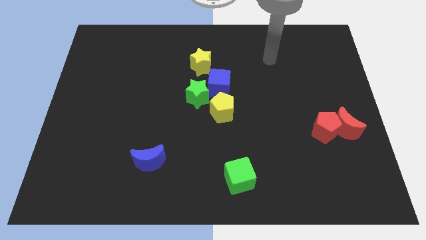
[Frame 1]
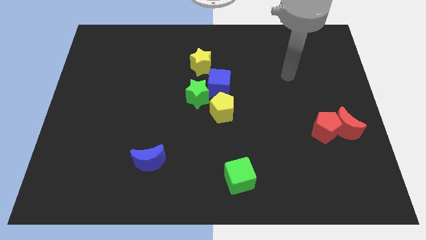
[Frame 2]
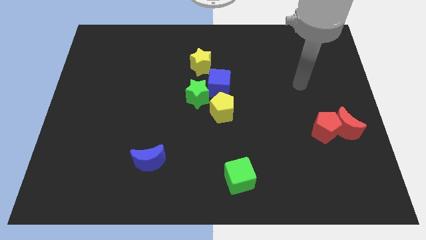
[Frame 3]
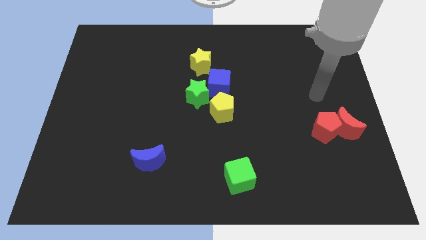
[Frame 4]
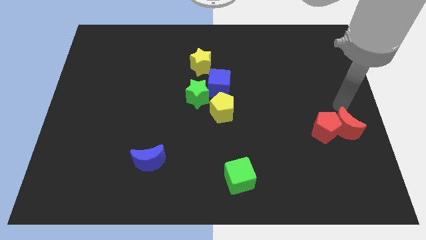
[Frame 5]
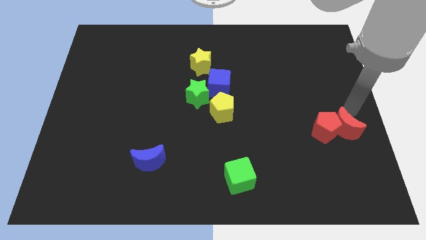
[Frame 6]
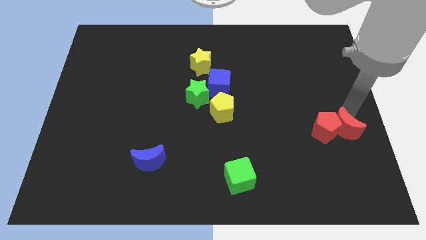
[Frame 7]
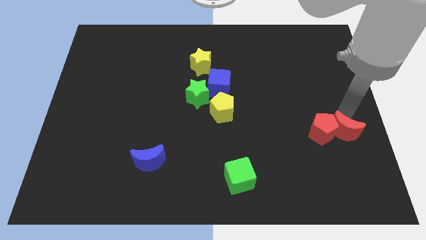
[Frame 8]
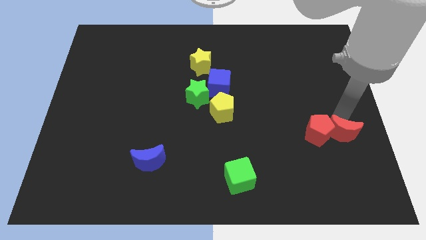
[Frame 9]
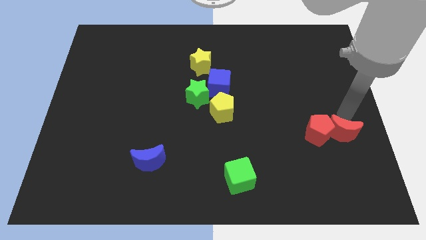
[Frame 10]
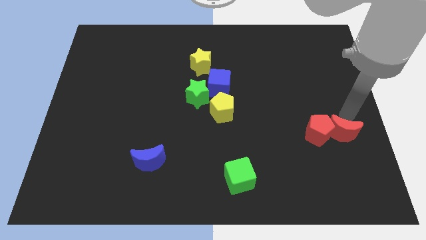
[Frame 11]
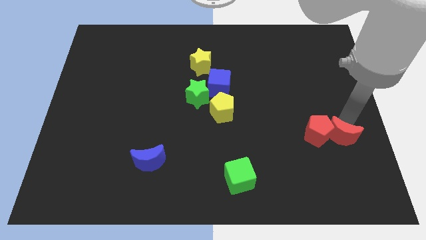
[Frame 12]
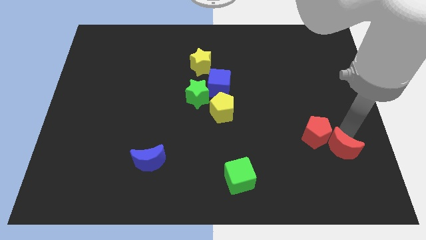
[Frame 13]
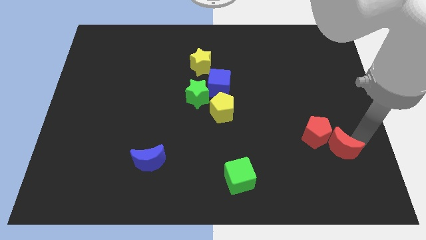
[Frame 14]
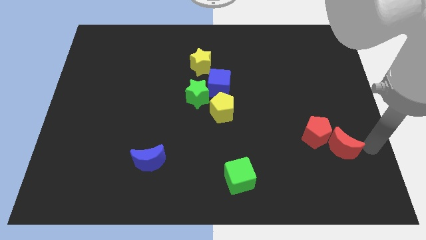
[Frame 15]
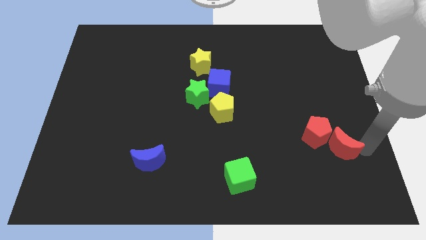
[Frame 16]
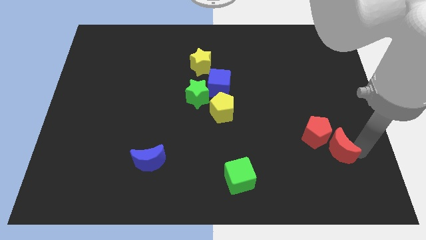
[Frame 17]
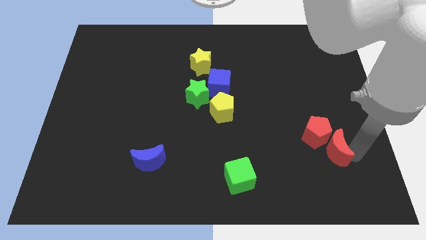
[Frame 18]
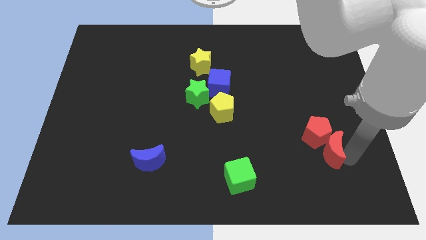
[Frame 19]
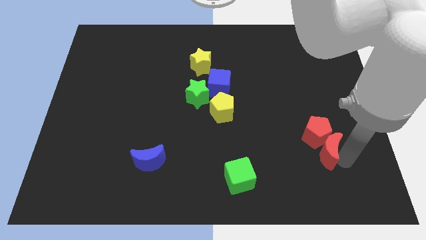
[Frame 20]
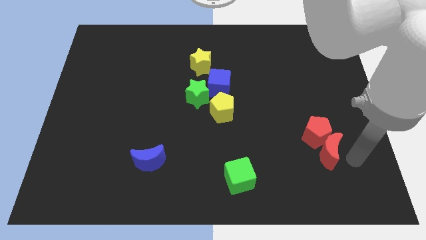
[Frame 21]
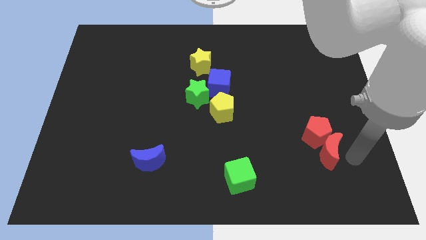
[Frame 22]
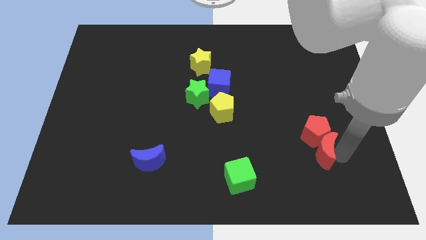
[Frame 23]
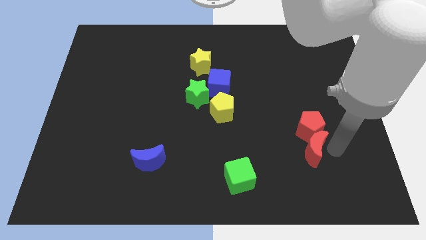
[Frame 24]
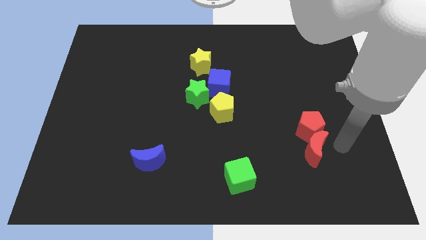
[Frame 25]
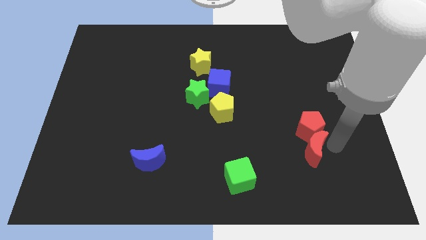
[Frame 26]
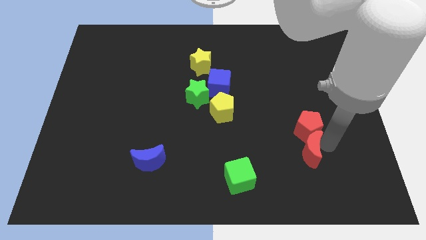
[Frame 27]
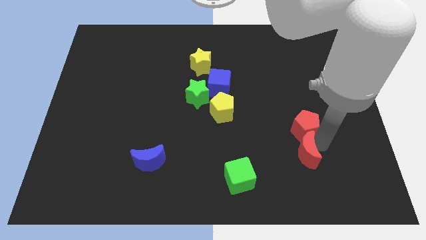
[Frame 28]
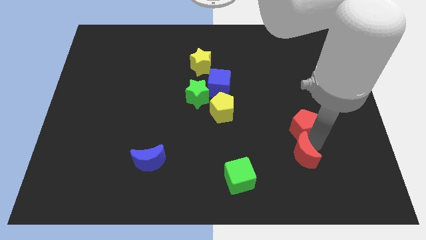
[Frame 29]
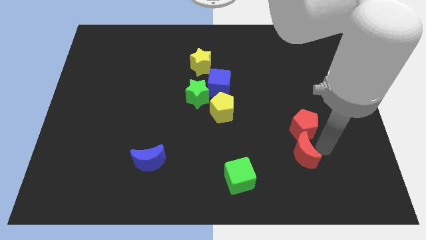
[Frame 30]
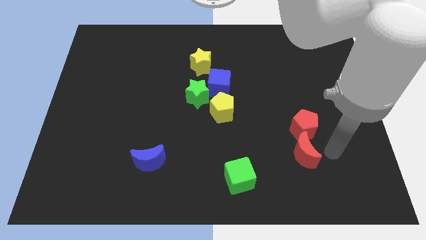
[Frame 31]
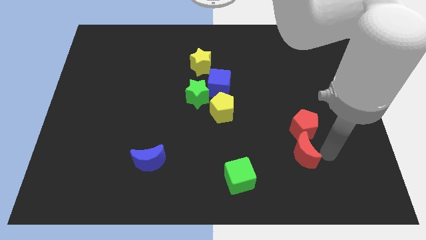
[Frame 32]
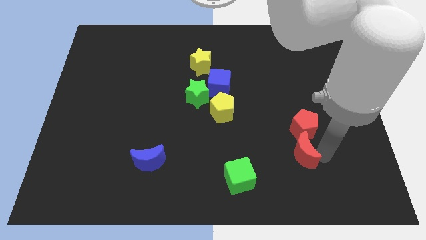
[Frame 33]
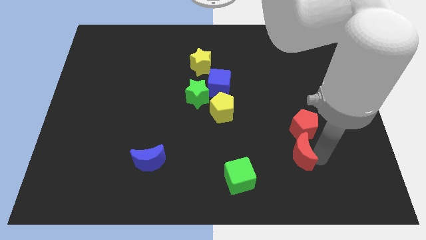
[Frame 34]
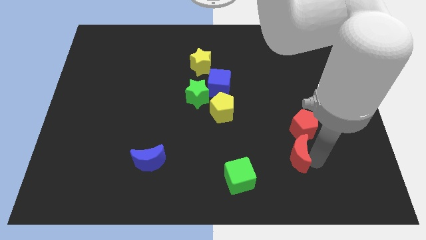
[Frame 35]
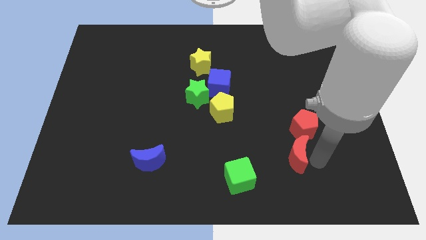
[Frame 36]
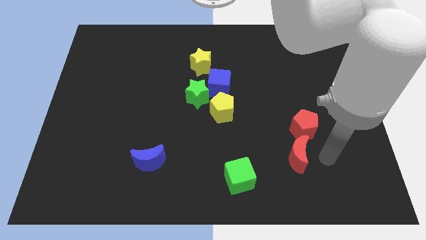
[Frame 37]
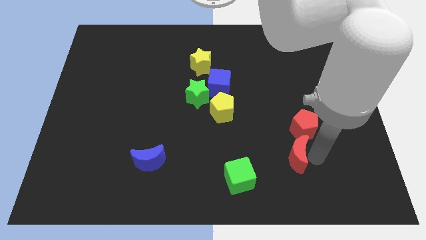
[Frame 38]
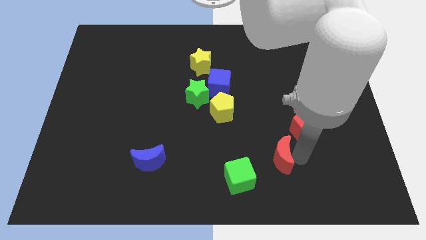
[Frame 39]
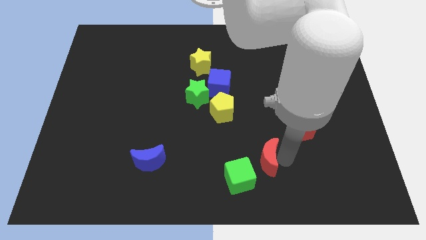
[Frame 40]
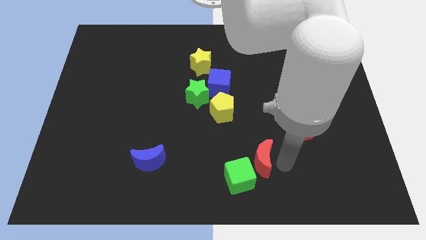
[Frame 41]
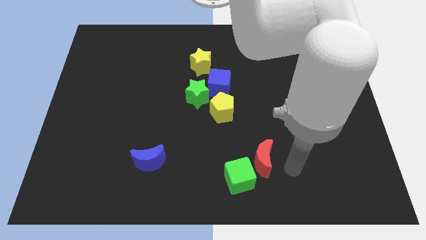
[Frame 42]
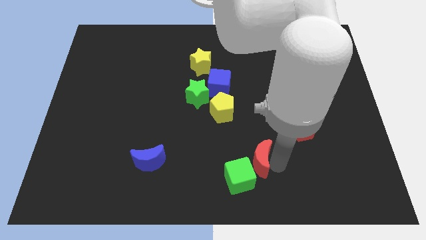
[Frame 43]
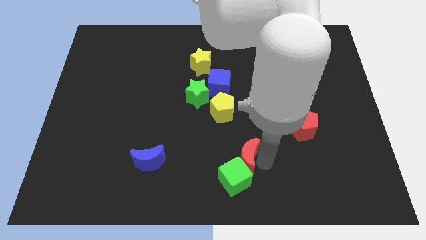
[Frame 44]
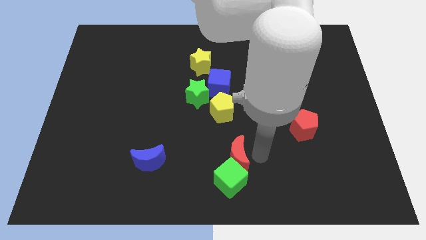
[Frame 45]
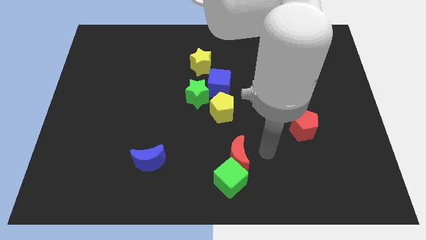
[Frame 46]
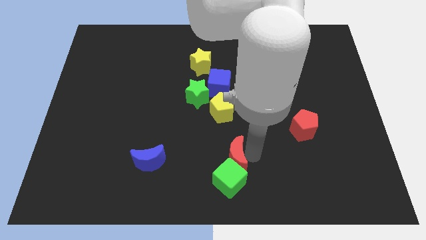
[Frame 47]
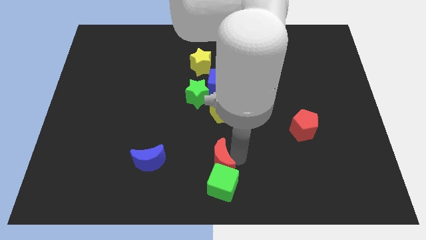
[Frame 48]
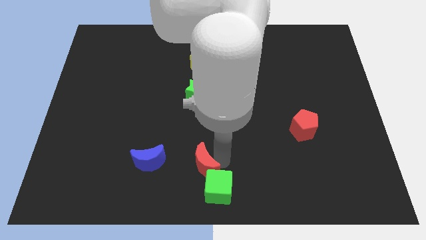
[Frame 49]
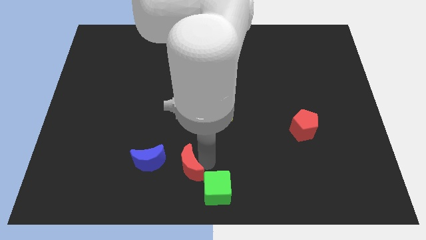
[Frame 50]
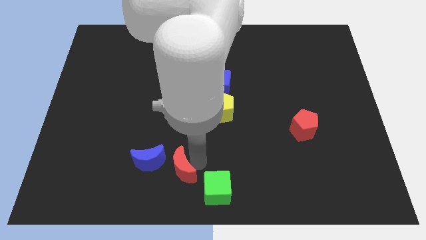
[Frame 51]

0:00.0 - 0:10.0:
push the red moon to the bottom right side of the blue moon

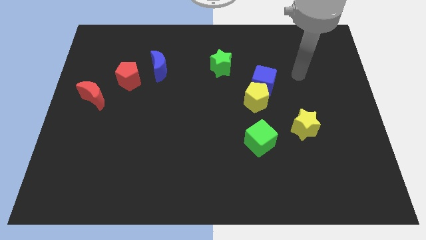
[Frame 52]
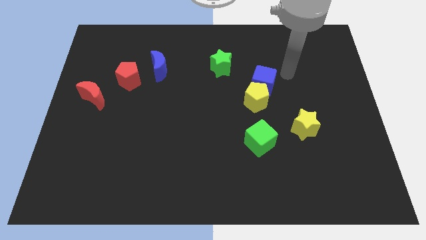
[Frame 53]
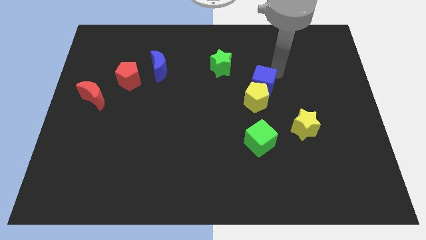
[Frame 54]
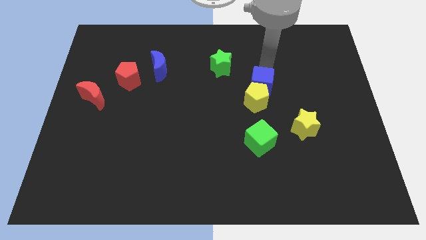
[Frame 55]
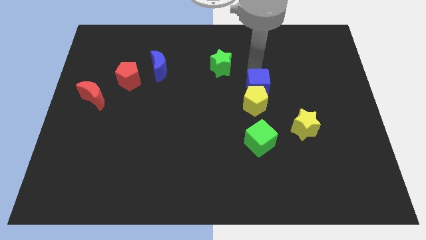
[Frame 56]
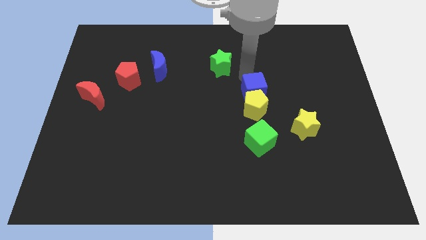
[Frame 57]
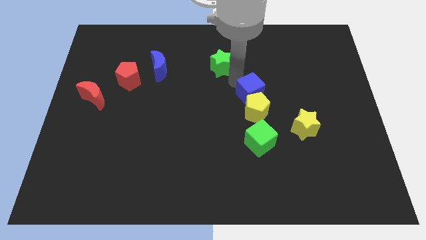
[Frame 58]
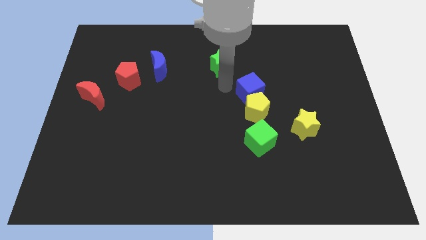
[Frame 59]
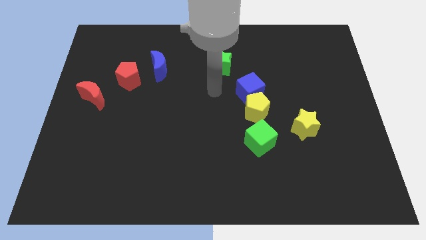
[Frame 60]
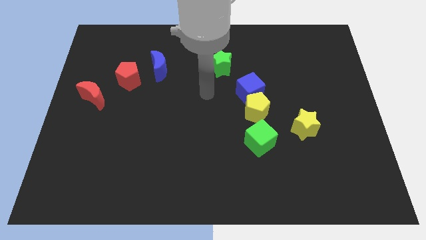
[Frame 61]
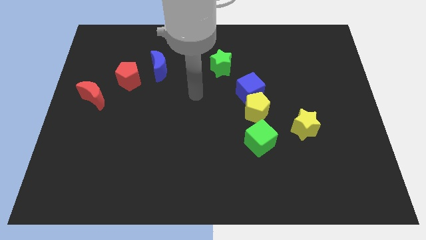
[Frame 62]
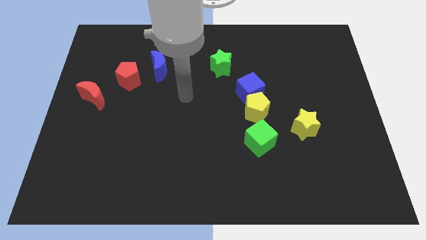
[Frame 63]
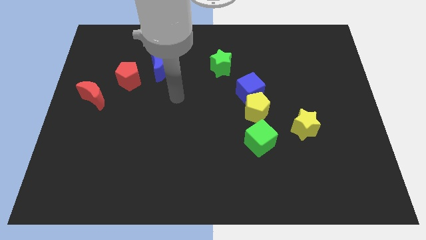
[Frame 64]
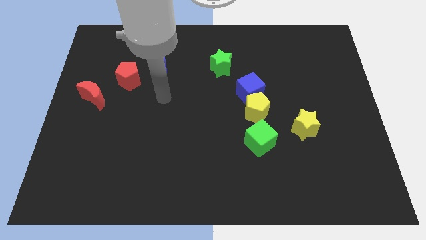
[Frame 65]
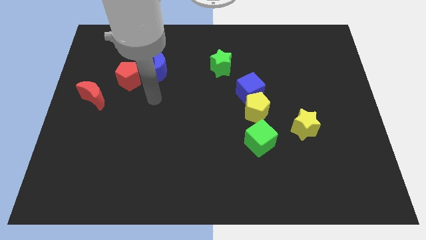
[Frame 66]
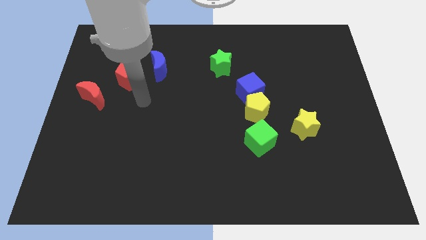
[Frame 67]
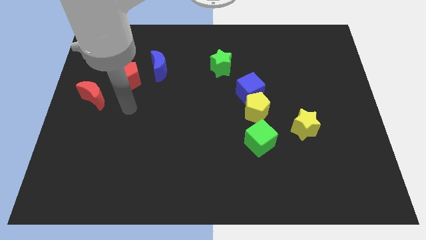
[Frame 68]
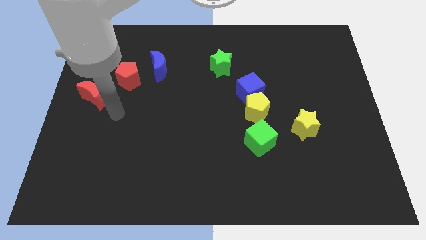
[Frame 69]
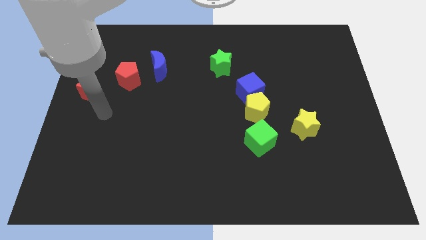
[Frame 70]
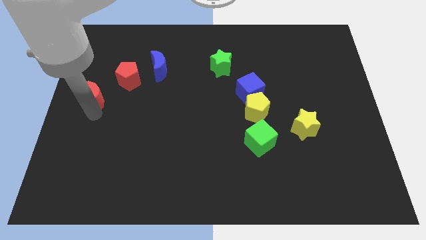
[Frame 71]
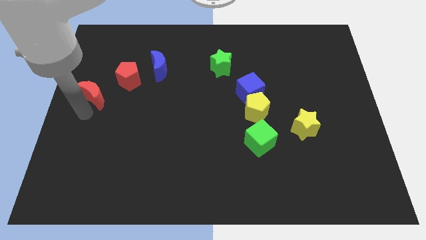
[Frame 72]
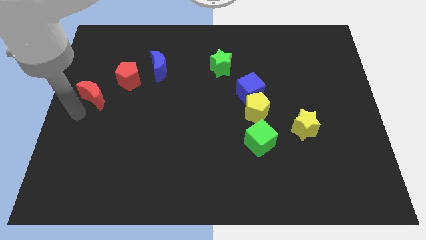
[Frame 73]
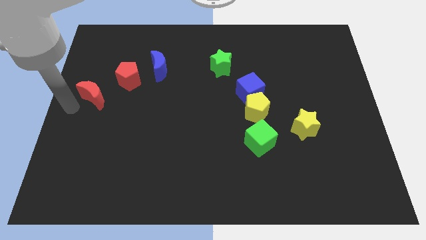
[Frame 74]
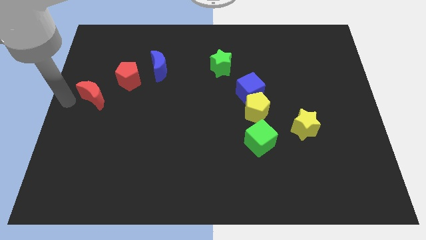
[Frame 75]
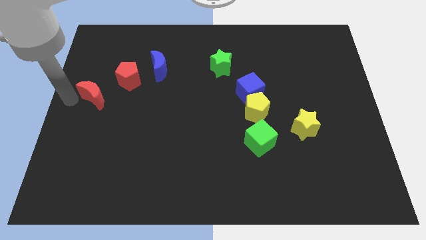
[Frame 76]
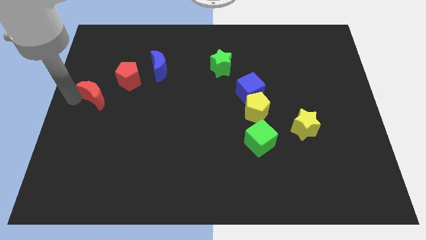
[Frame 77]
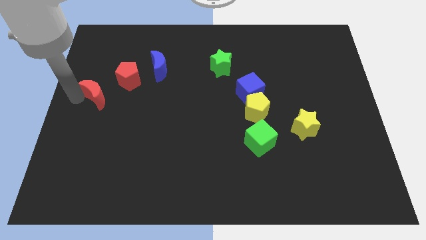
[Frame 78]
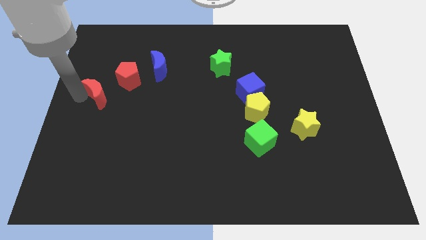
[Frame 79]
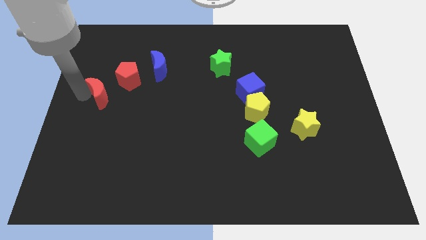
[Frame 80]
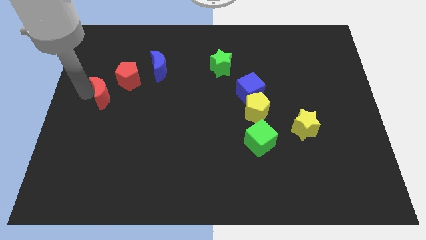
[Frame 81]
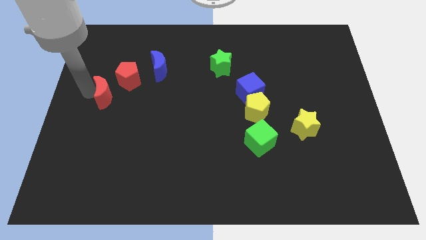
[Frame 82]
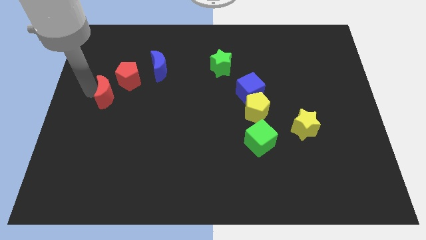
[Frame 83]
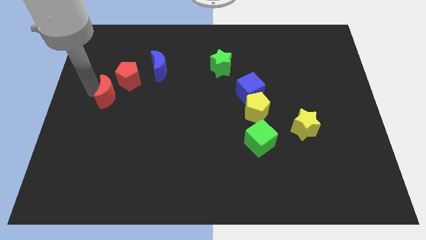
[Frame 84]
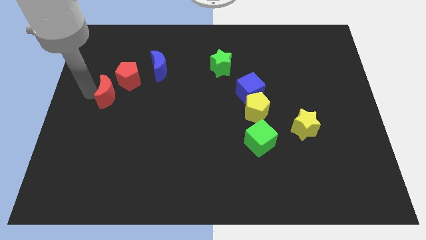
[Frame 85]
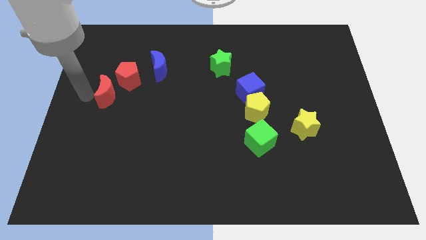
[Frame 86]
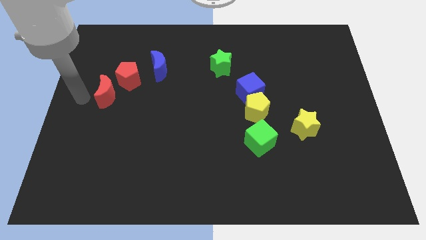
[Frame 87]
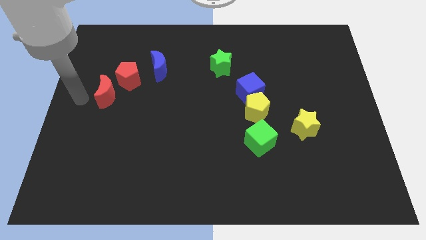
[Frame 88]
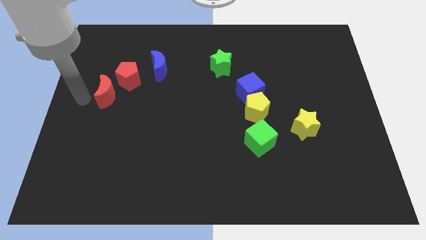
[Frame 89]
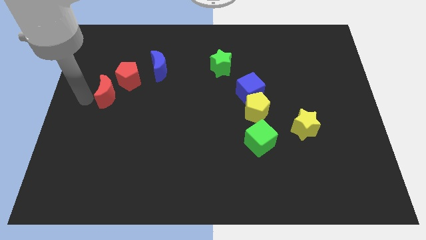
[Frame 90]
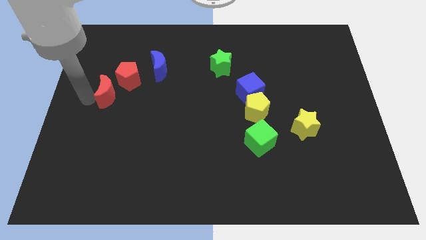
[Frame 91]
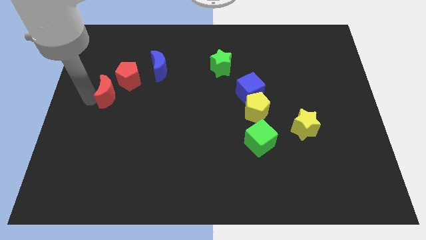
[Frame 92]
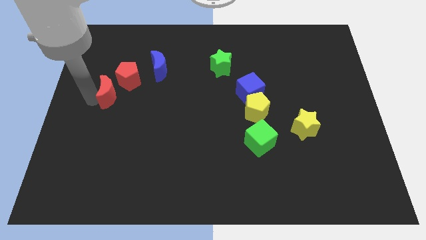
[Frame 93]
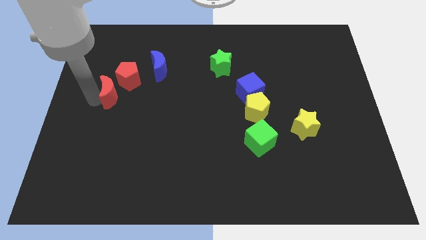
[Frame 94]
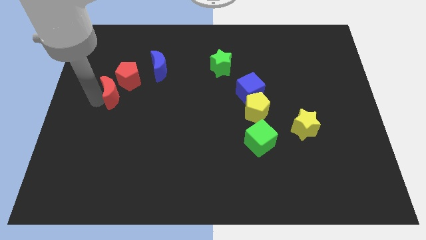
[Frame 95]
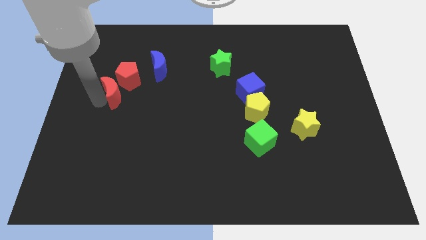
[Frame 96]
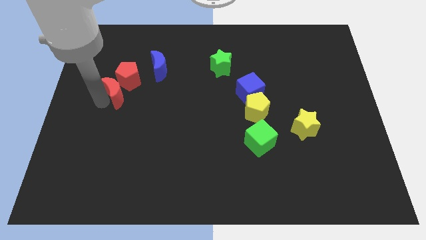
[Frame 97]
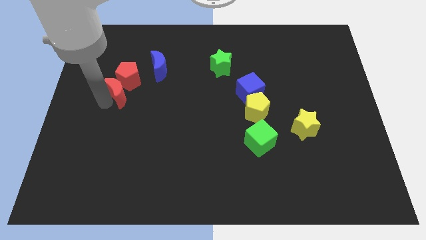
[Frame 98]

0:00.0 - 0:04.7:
move the red moon to the bottom left side of the blue moon
